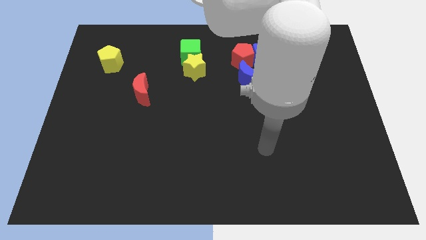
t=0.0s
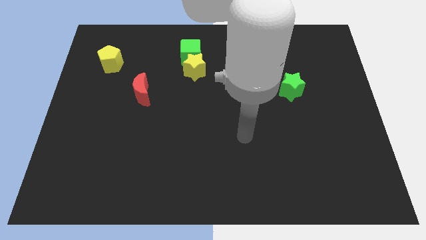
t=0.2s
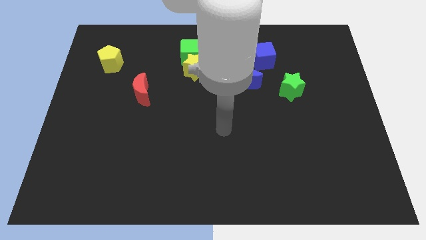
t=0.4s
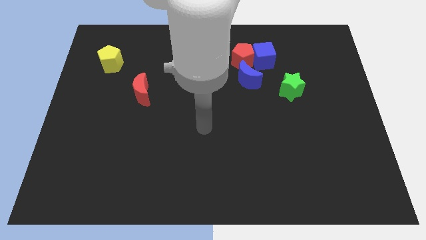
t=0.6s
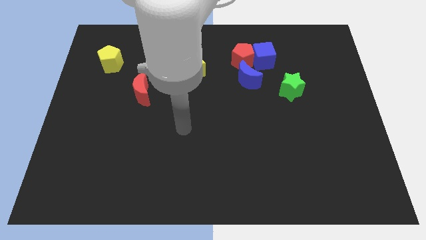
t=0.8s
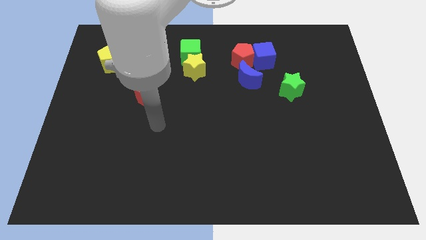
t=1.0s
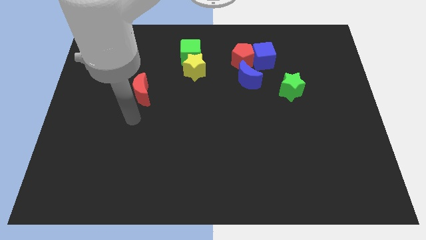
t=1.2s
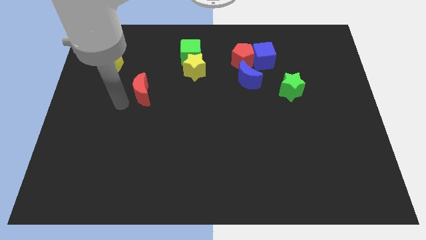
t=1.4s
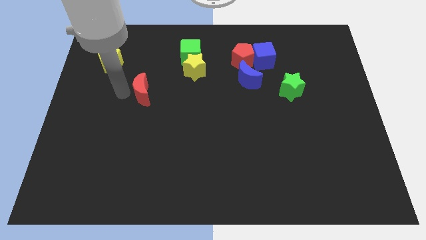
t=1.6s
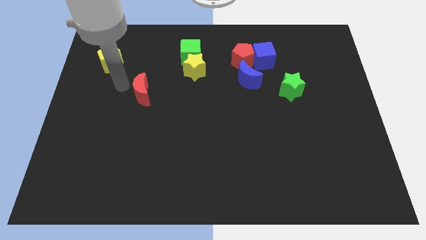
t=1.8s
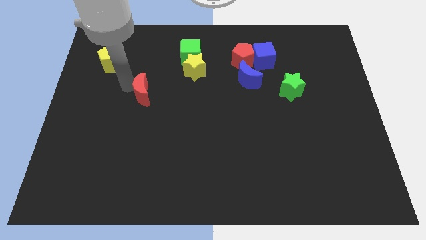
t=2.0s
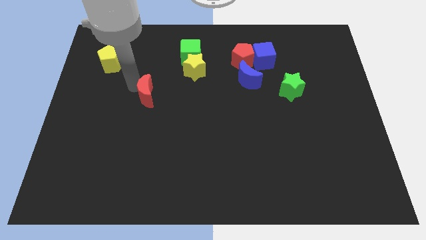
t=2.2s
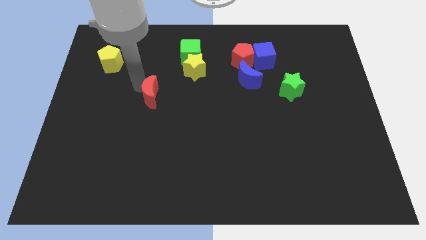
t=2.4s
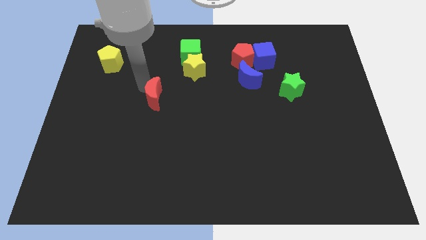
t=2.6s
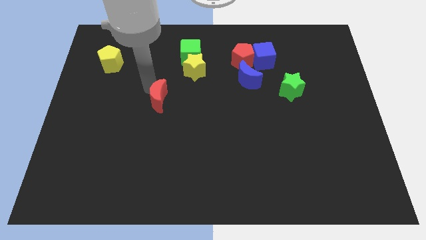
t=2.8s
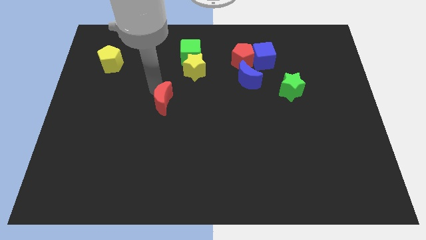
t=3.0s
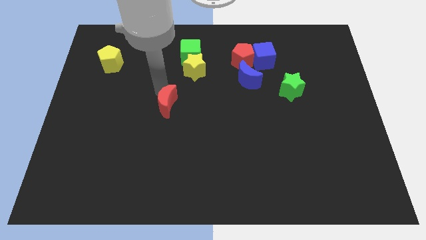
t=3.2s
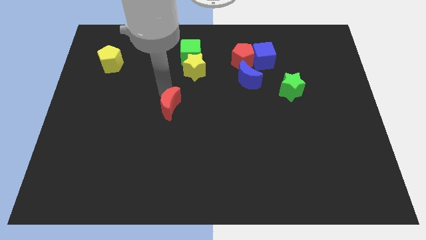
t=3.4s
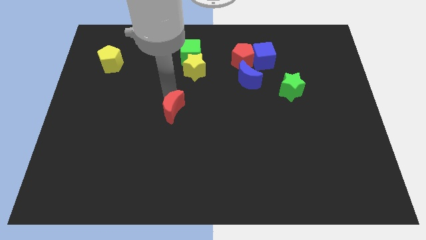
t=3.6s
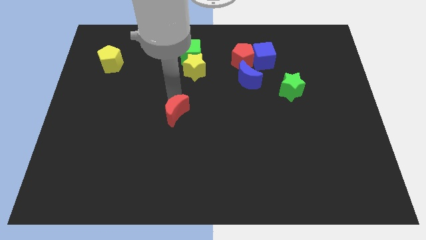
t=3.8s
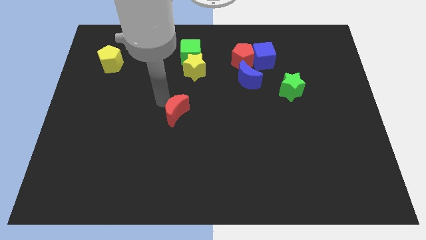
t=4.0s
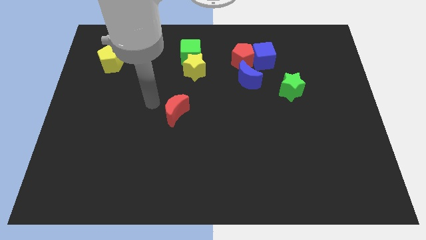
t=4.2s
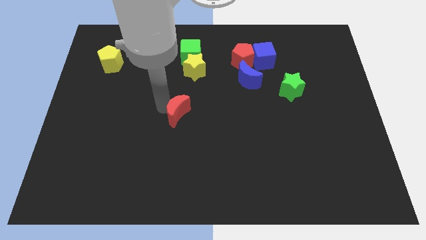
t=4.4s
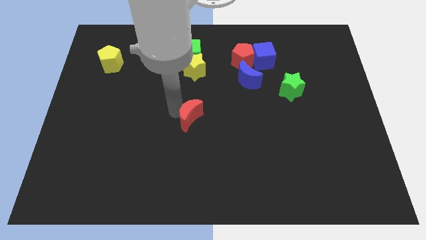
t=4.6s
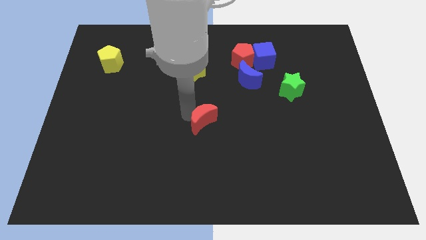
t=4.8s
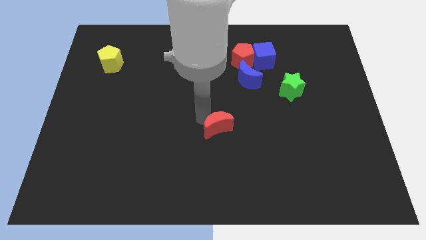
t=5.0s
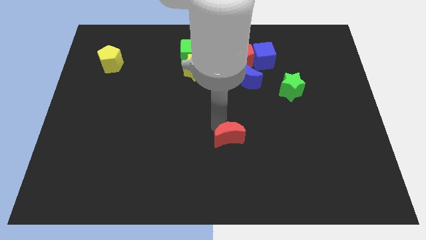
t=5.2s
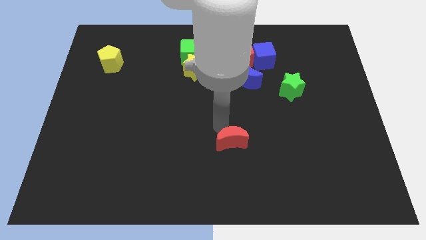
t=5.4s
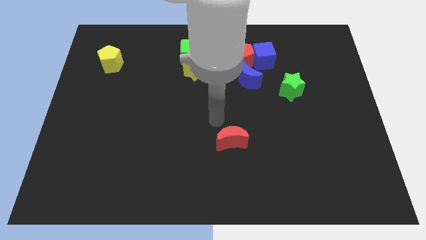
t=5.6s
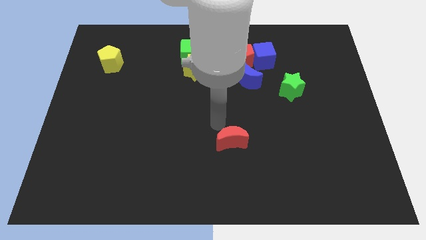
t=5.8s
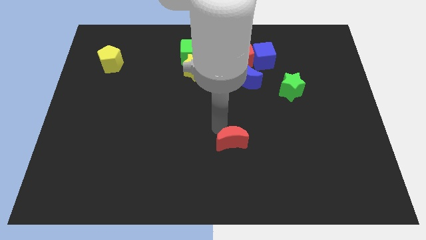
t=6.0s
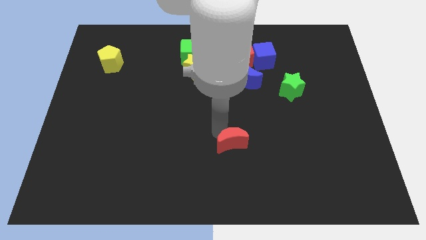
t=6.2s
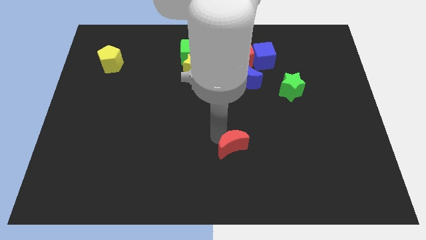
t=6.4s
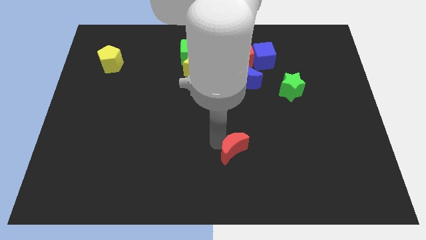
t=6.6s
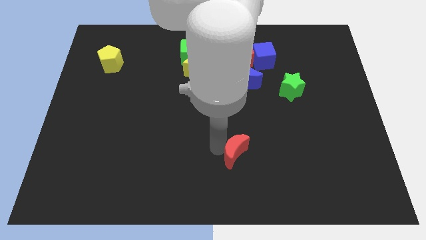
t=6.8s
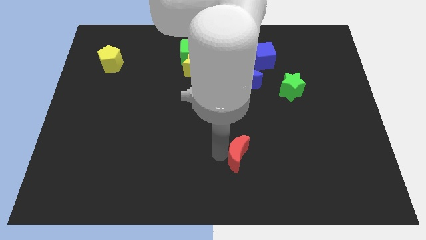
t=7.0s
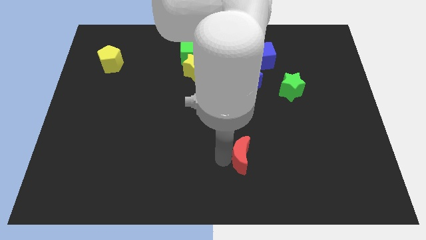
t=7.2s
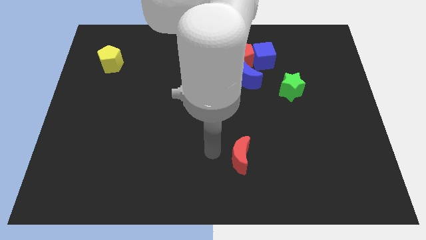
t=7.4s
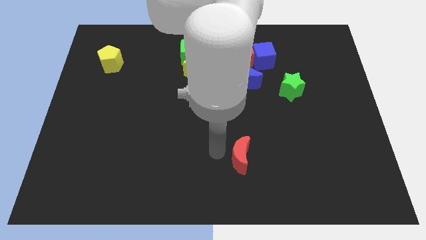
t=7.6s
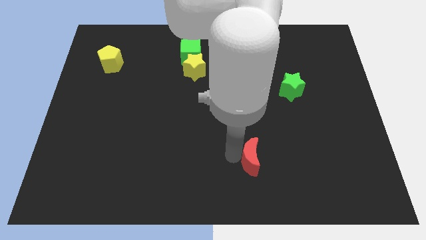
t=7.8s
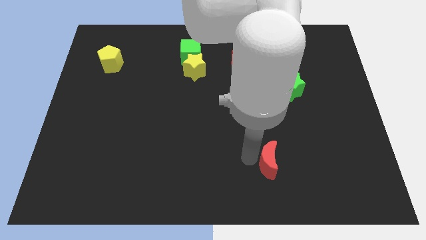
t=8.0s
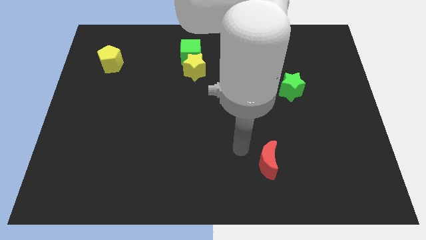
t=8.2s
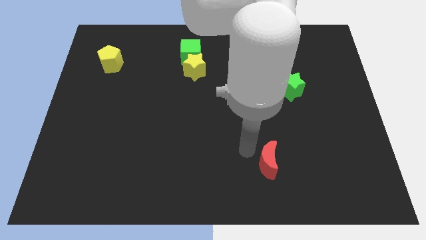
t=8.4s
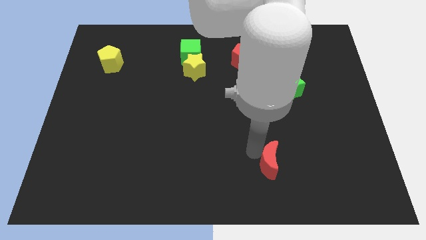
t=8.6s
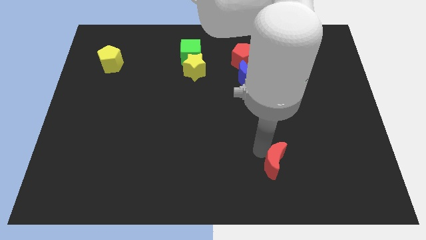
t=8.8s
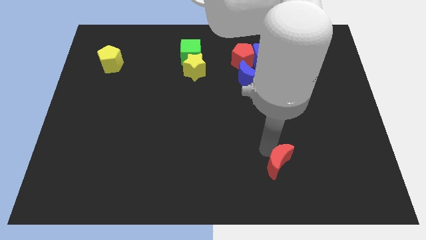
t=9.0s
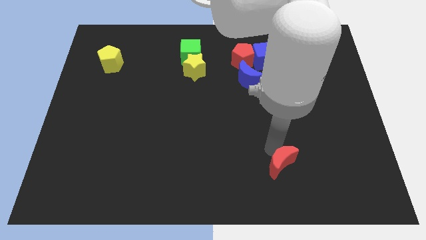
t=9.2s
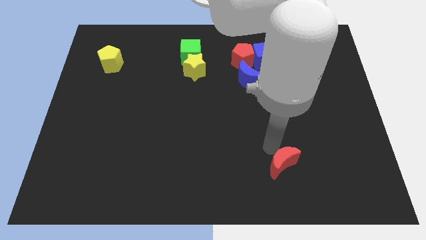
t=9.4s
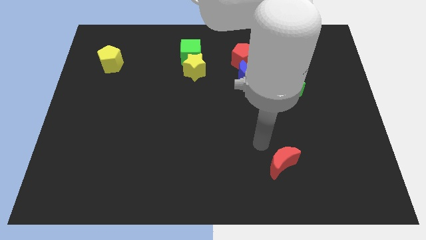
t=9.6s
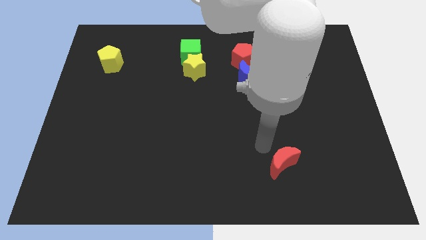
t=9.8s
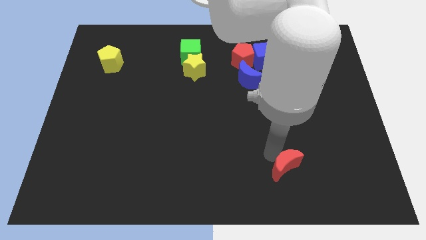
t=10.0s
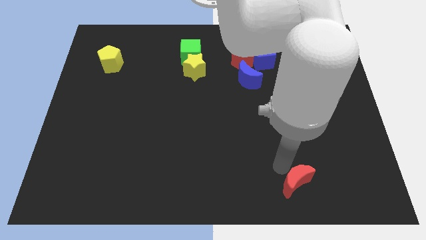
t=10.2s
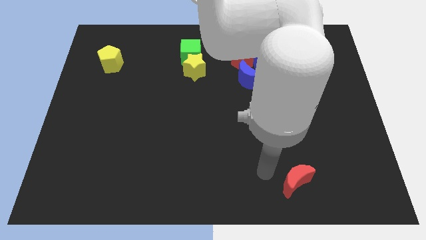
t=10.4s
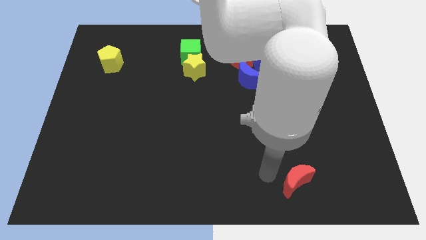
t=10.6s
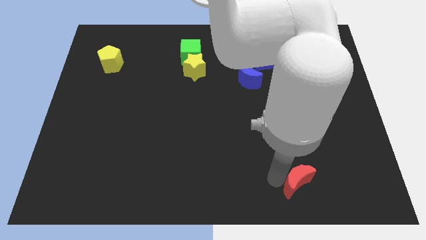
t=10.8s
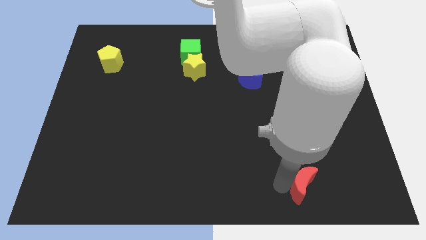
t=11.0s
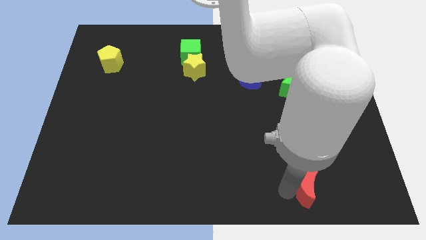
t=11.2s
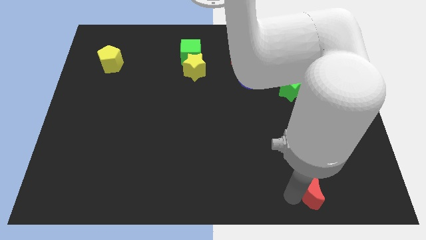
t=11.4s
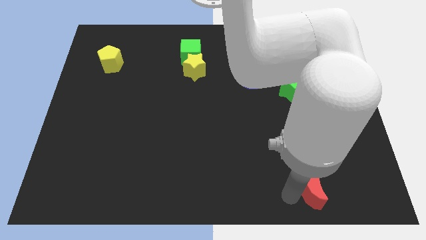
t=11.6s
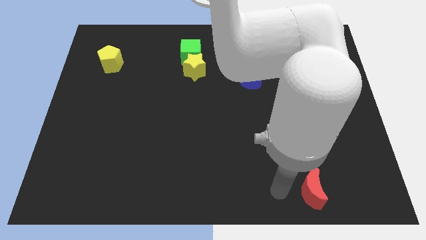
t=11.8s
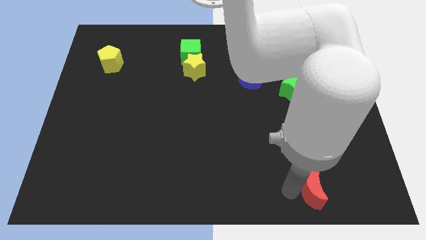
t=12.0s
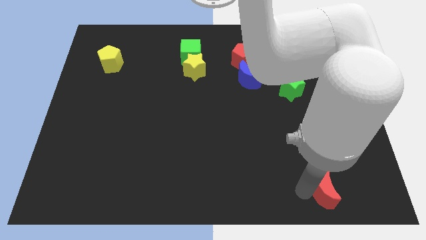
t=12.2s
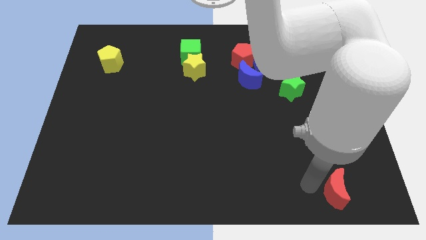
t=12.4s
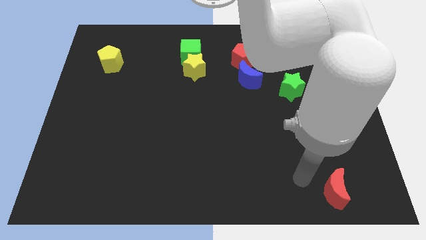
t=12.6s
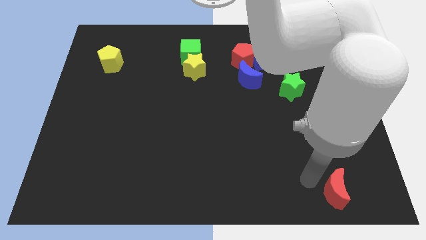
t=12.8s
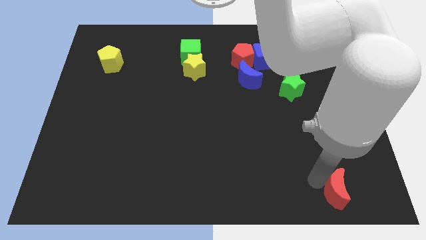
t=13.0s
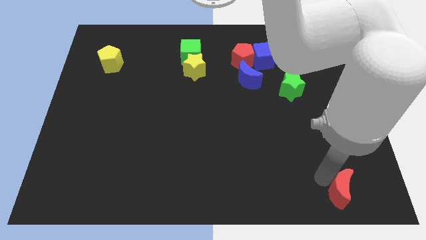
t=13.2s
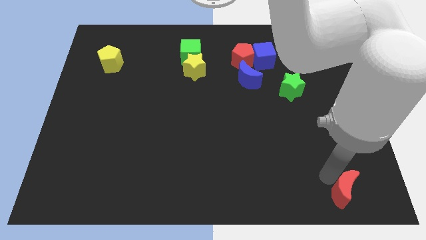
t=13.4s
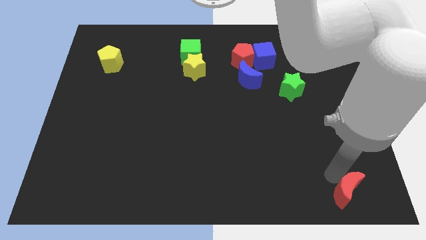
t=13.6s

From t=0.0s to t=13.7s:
put the red moon to the bottom right
